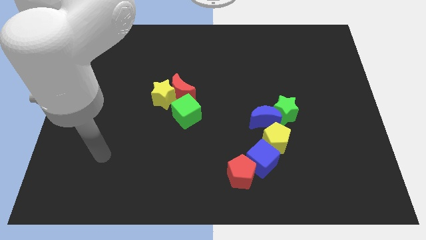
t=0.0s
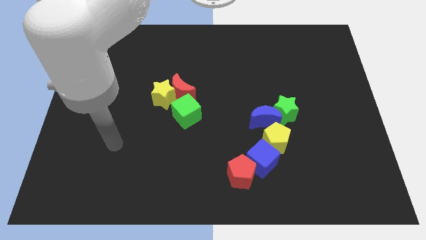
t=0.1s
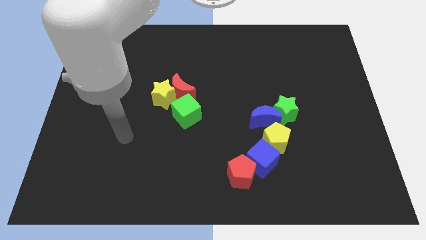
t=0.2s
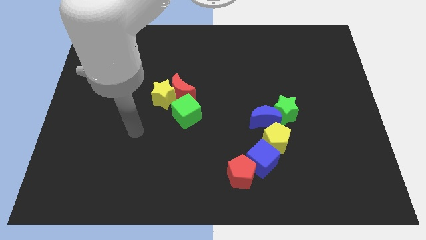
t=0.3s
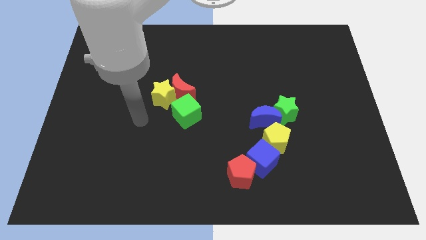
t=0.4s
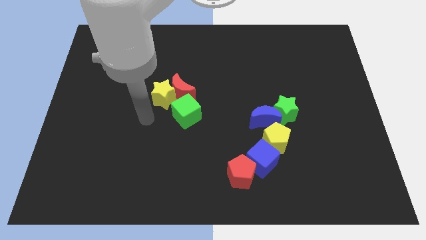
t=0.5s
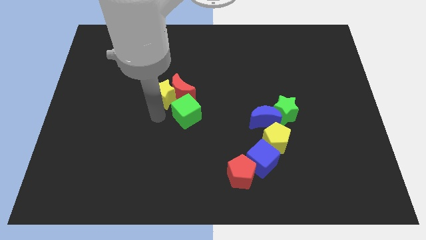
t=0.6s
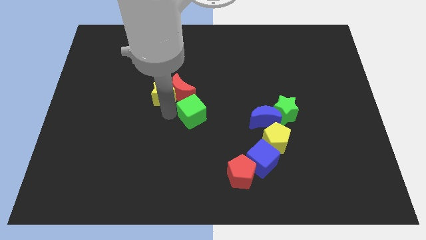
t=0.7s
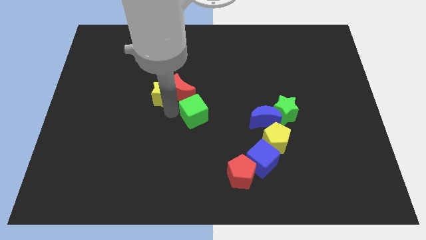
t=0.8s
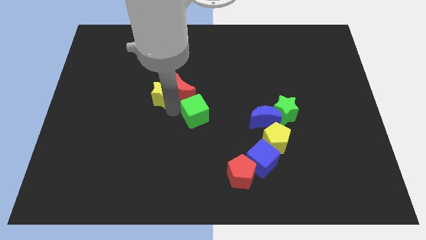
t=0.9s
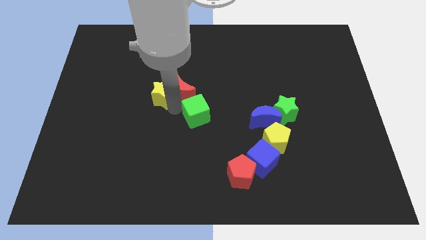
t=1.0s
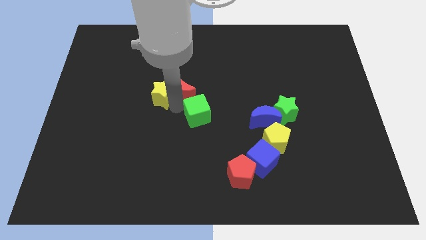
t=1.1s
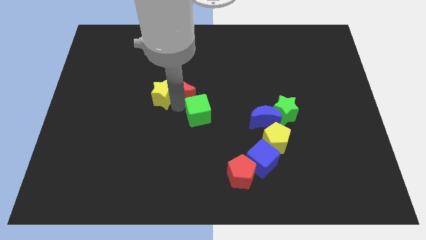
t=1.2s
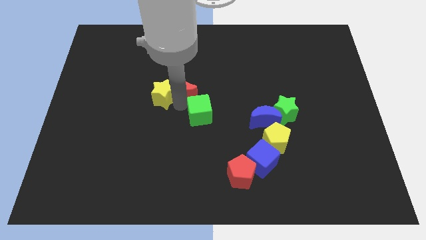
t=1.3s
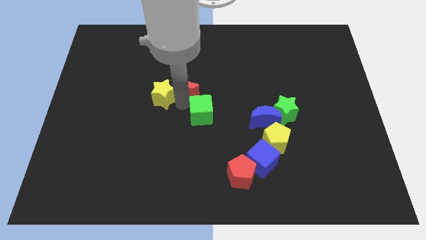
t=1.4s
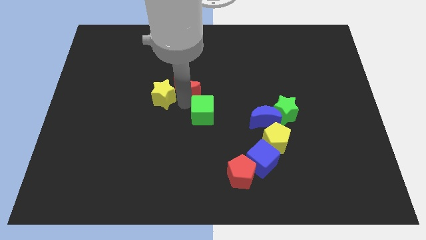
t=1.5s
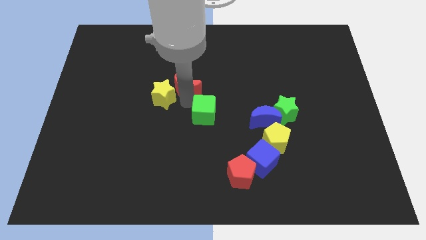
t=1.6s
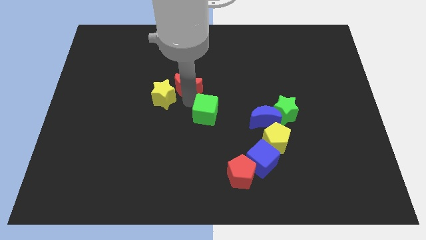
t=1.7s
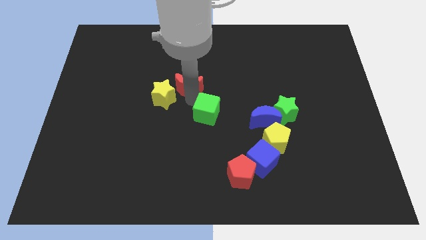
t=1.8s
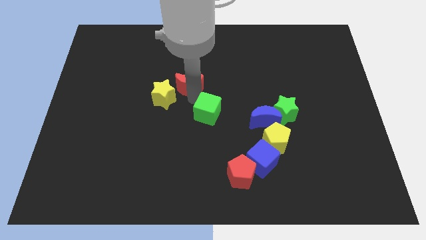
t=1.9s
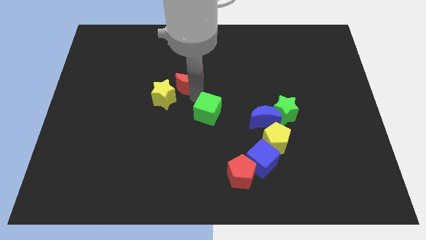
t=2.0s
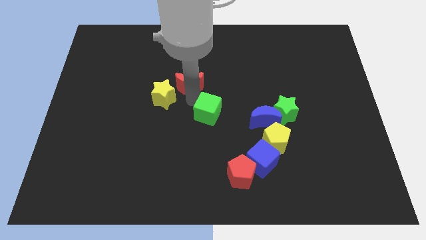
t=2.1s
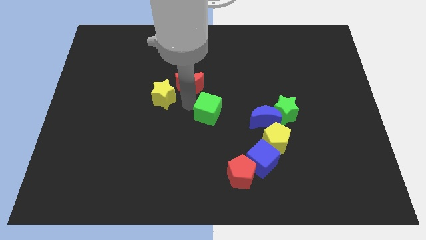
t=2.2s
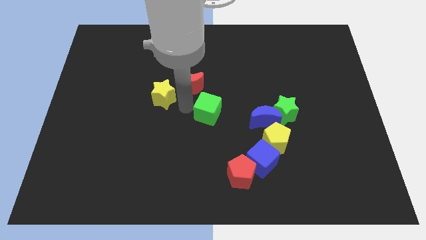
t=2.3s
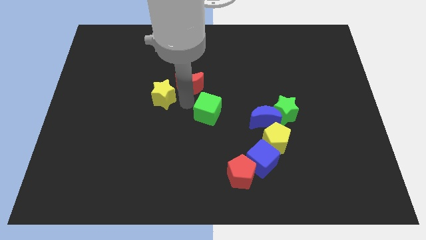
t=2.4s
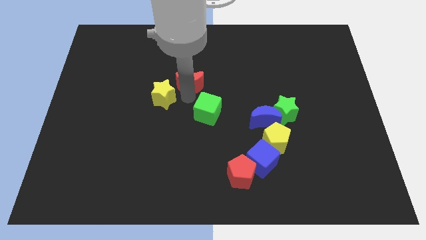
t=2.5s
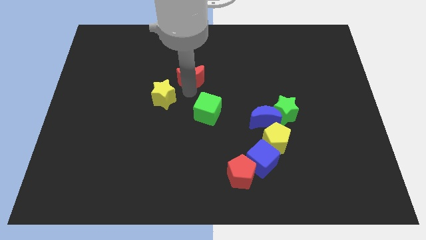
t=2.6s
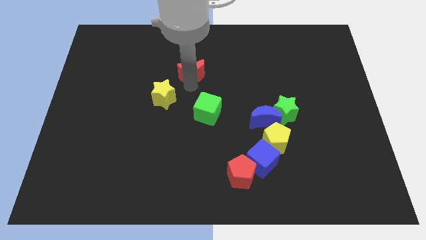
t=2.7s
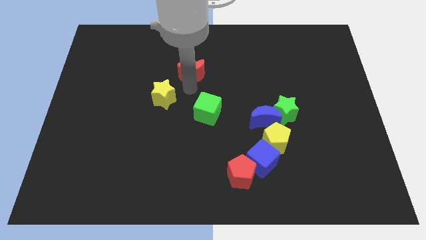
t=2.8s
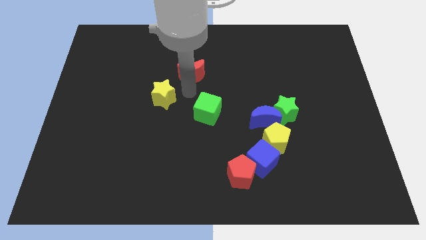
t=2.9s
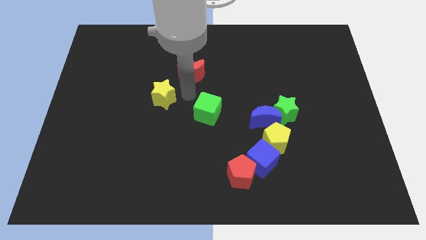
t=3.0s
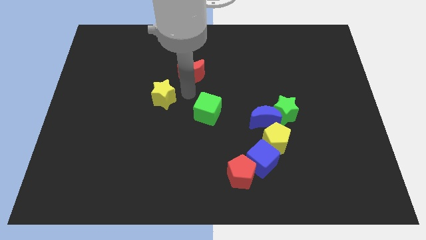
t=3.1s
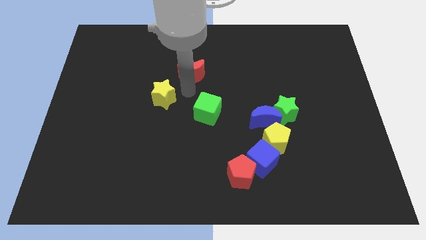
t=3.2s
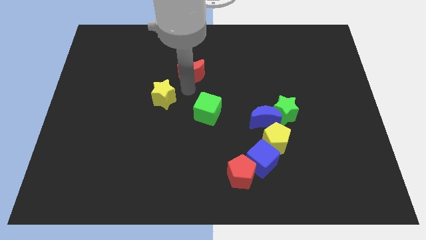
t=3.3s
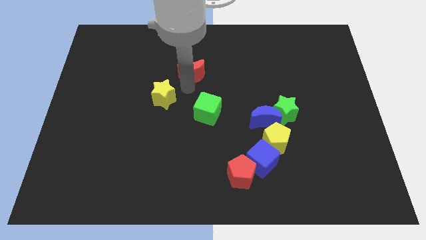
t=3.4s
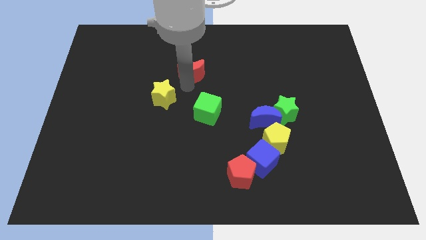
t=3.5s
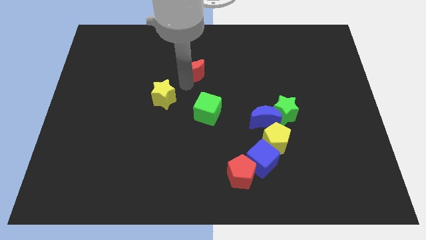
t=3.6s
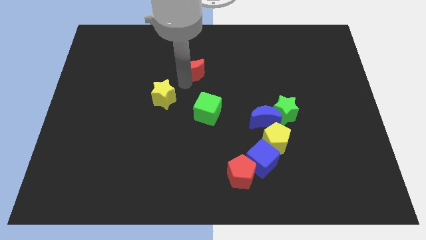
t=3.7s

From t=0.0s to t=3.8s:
pull the red moon apart from the yellow star and green cube

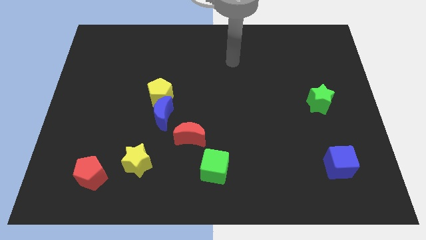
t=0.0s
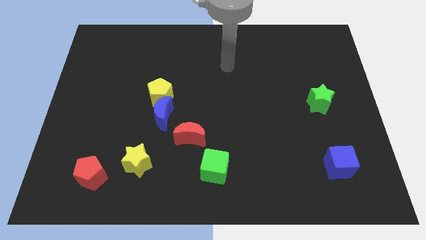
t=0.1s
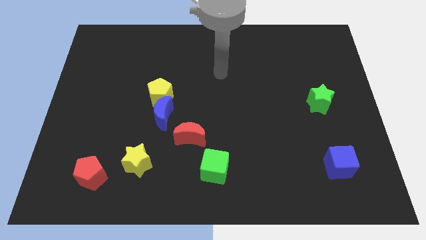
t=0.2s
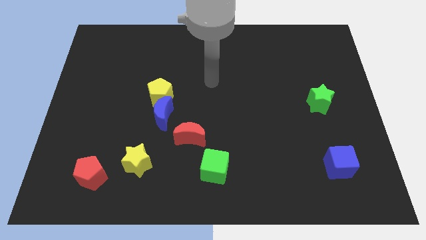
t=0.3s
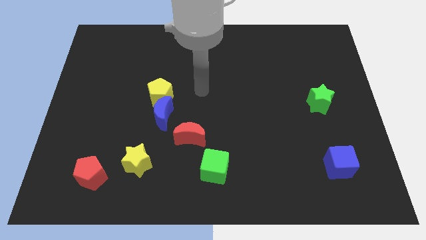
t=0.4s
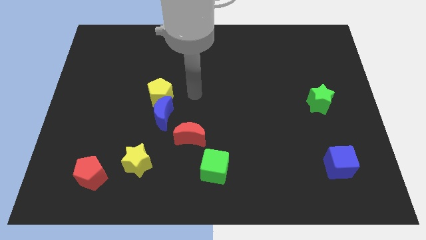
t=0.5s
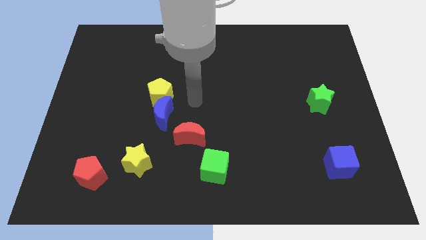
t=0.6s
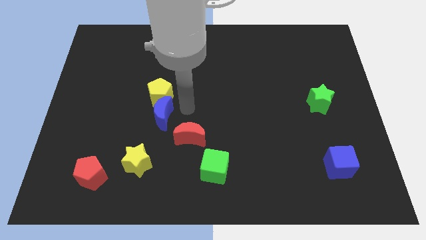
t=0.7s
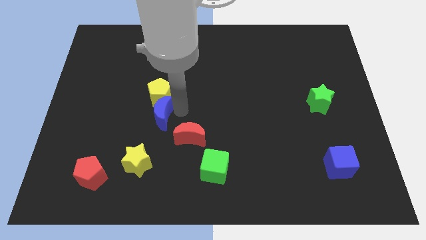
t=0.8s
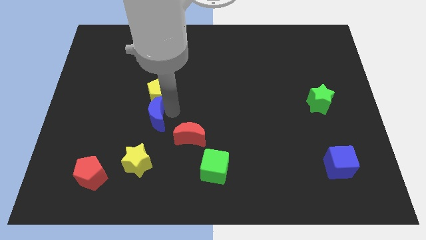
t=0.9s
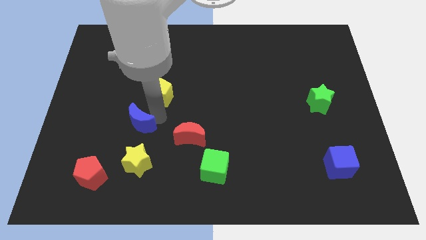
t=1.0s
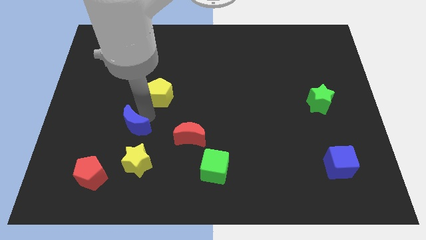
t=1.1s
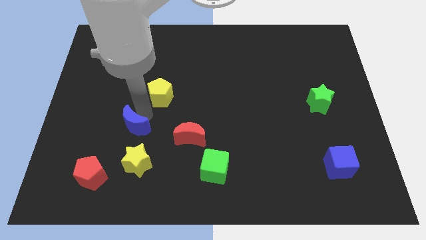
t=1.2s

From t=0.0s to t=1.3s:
move the yellow pentagon away from the blue moon

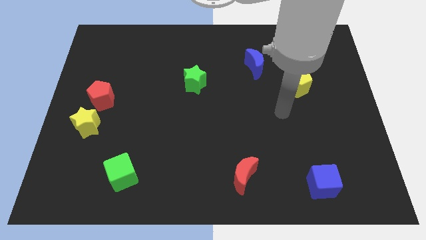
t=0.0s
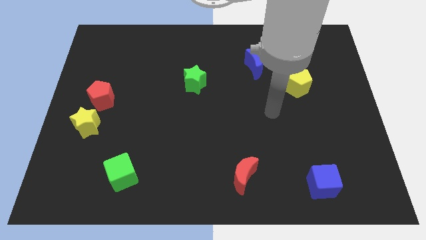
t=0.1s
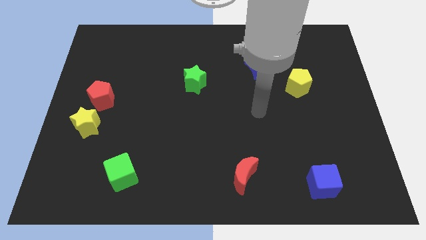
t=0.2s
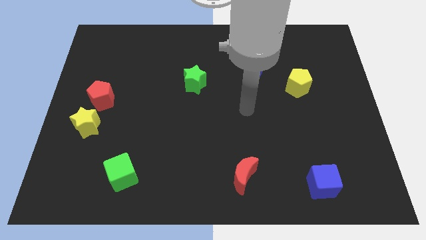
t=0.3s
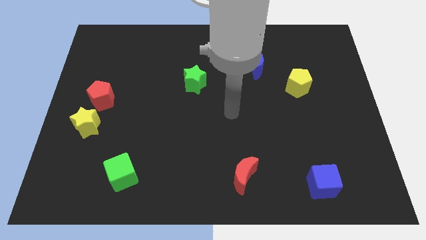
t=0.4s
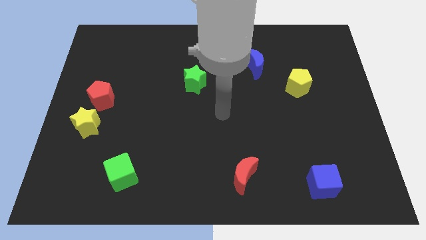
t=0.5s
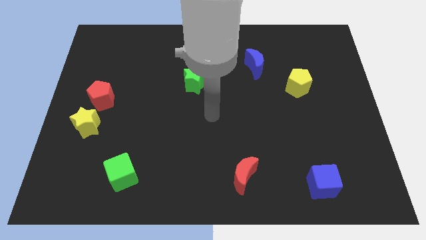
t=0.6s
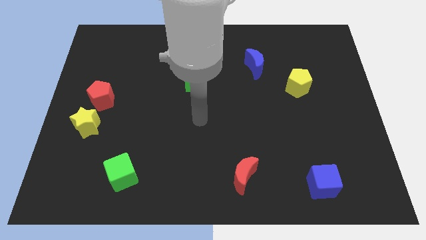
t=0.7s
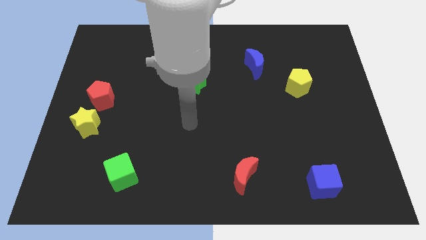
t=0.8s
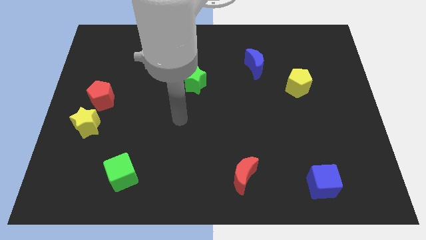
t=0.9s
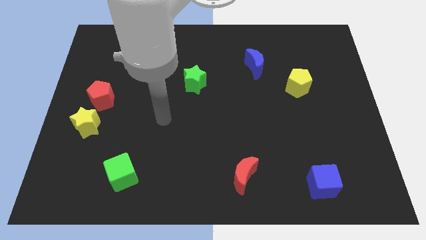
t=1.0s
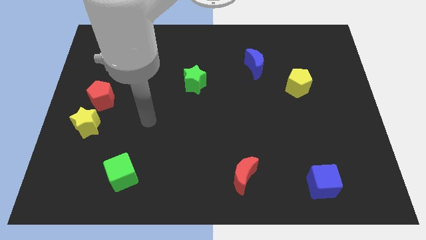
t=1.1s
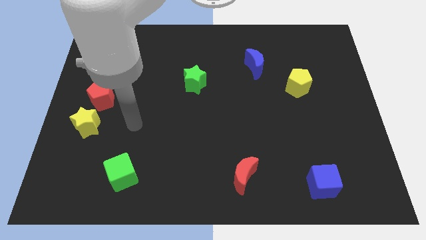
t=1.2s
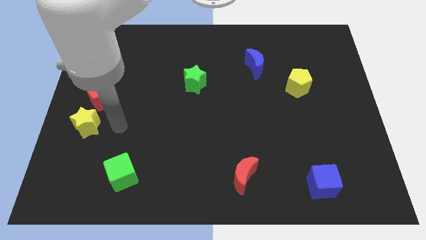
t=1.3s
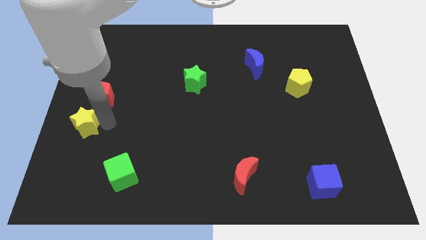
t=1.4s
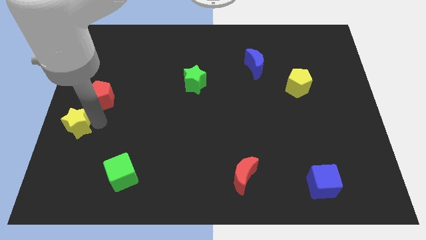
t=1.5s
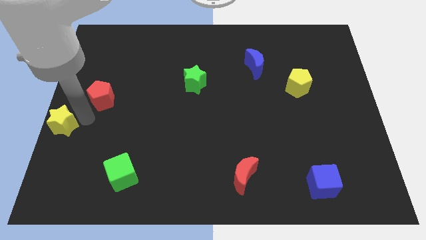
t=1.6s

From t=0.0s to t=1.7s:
separate the red pentagon from the yellow star

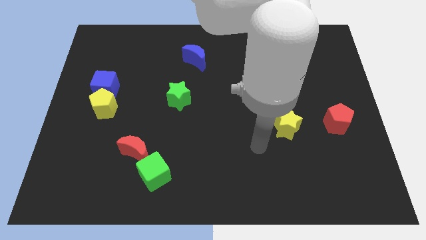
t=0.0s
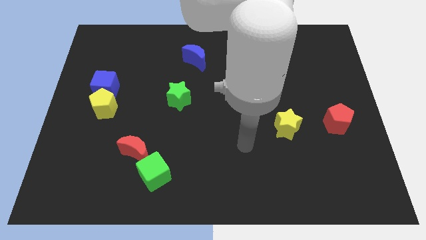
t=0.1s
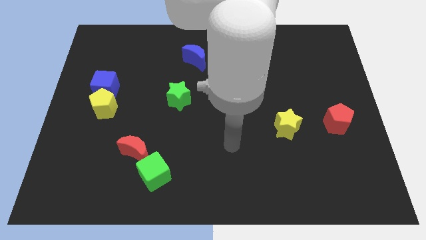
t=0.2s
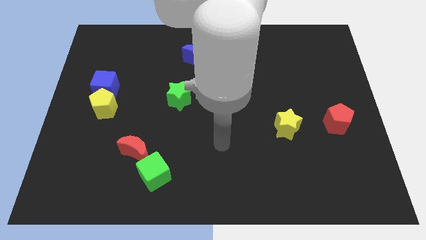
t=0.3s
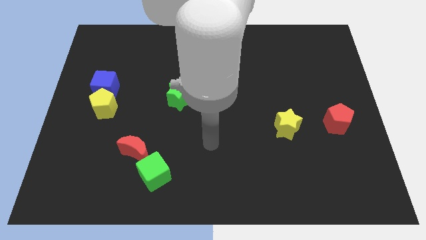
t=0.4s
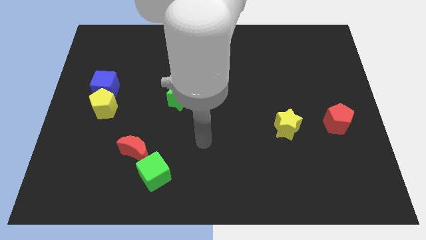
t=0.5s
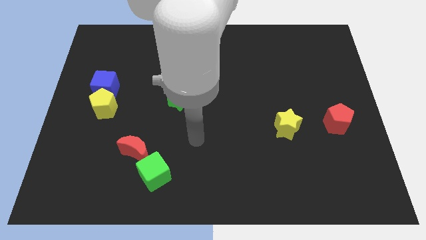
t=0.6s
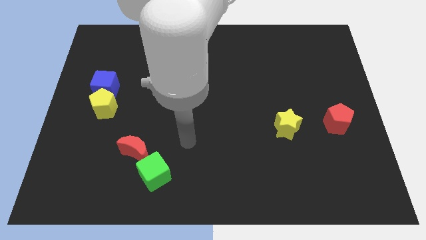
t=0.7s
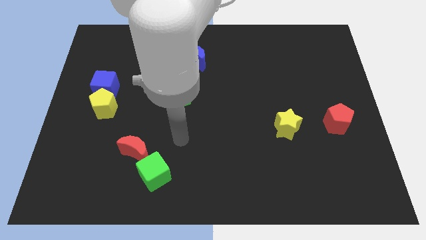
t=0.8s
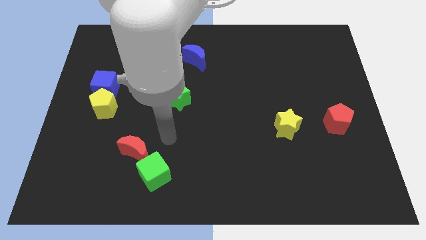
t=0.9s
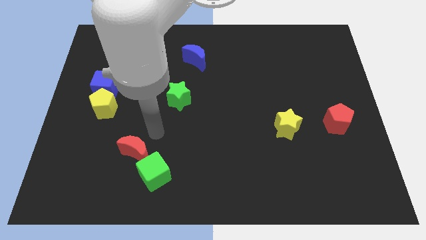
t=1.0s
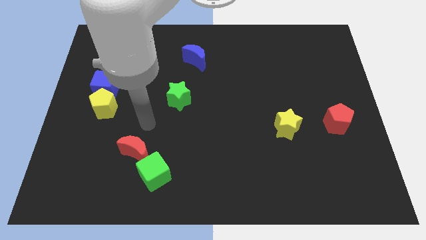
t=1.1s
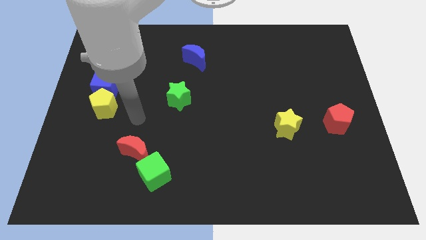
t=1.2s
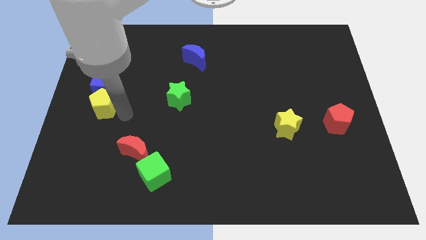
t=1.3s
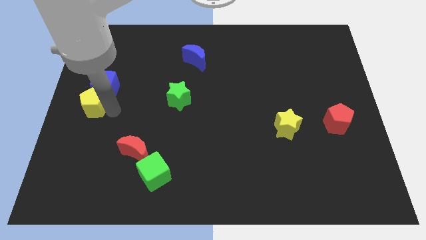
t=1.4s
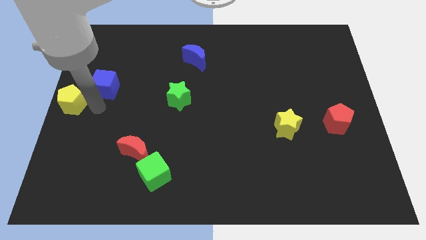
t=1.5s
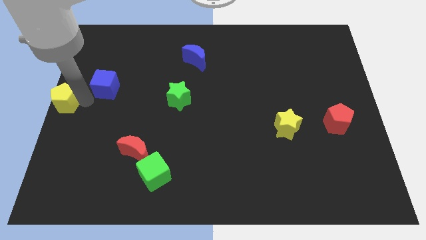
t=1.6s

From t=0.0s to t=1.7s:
move the blue cube away from the yellow pentagon

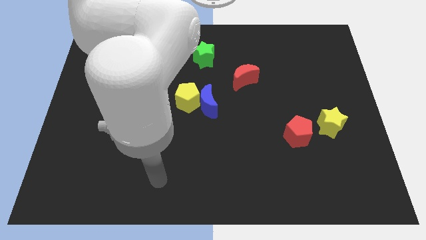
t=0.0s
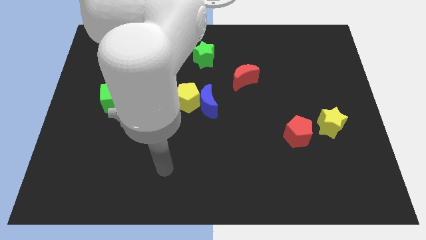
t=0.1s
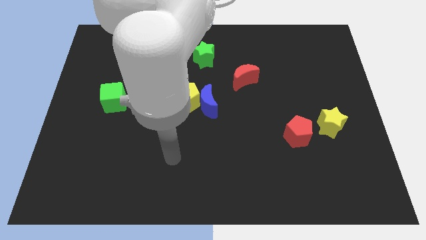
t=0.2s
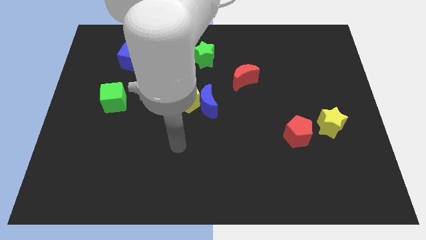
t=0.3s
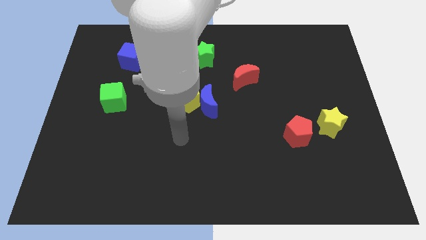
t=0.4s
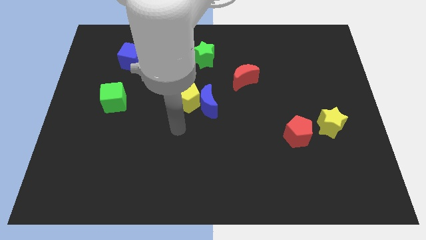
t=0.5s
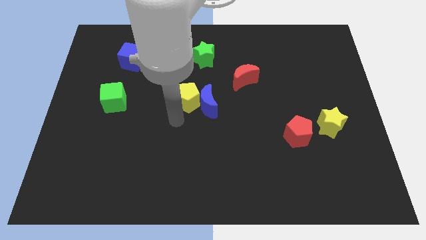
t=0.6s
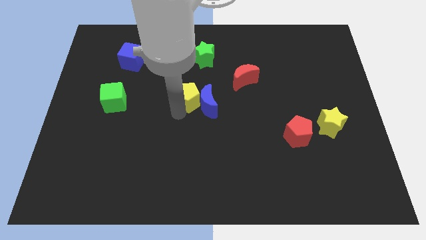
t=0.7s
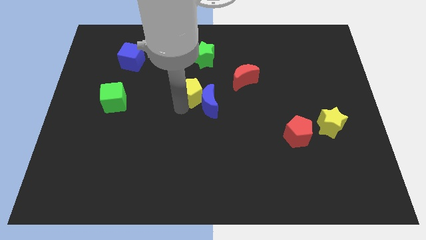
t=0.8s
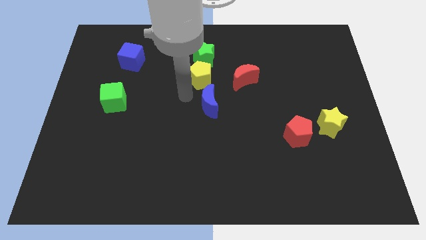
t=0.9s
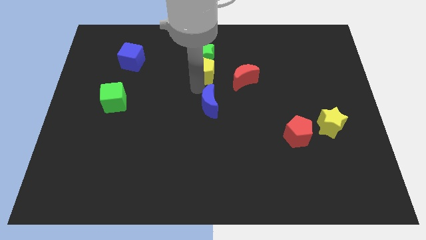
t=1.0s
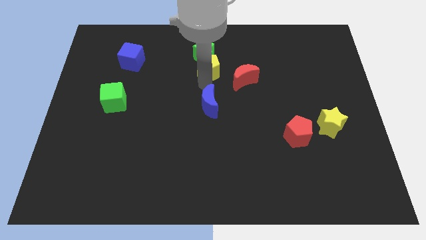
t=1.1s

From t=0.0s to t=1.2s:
move the blue moon away from the yellow pentagon
